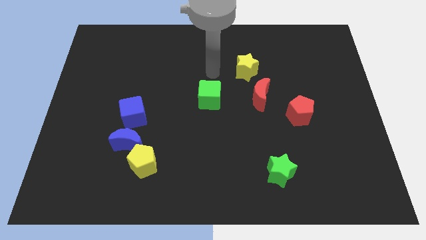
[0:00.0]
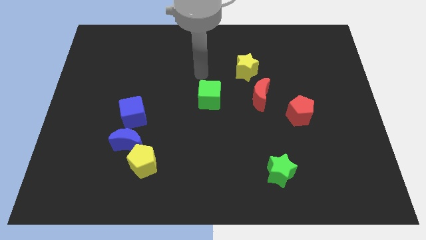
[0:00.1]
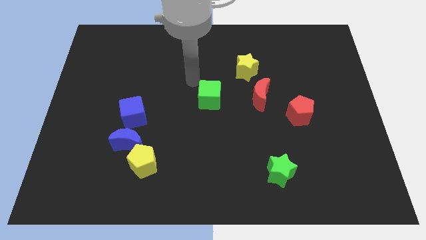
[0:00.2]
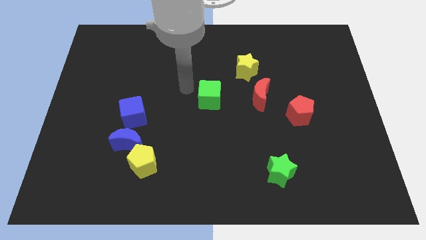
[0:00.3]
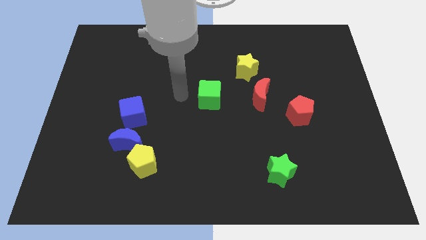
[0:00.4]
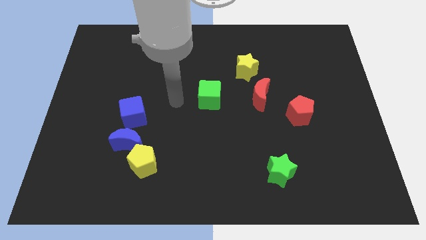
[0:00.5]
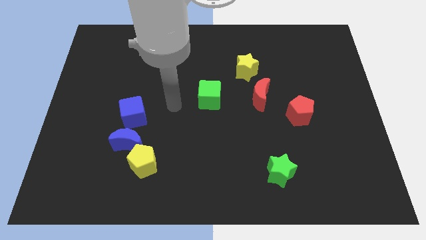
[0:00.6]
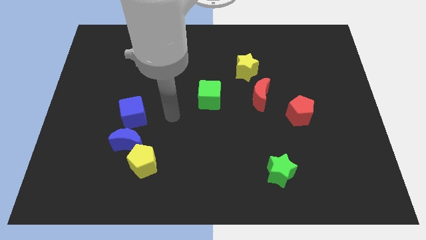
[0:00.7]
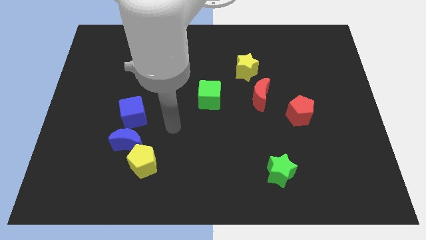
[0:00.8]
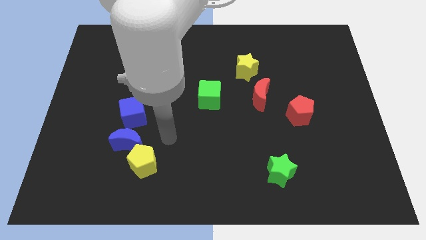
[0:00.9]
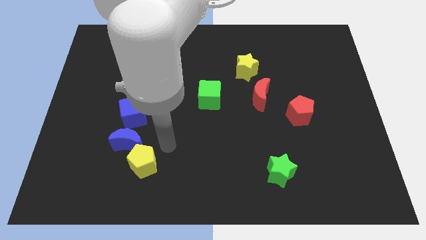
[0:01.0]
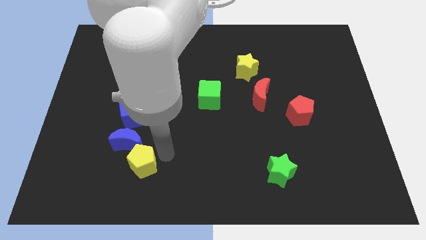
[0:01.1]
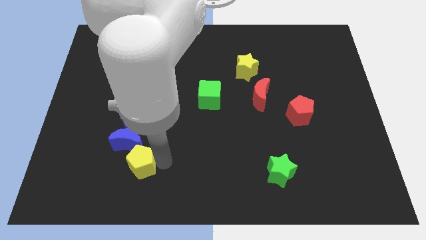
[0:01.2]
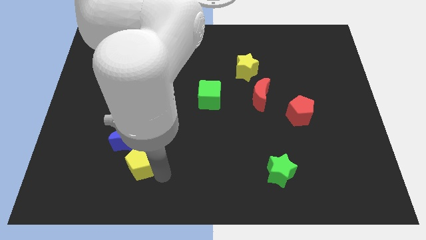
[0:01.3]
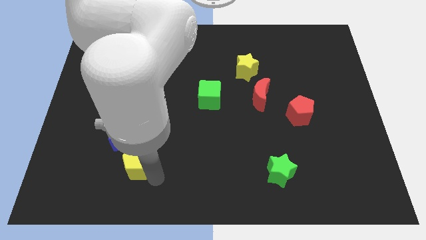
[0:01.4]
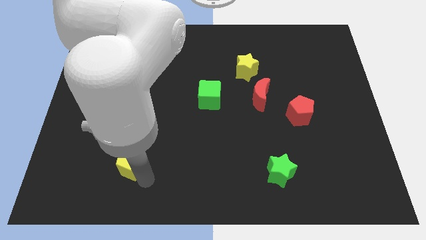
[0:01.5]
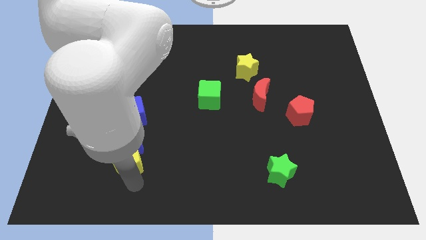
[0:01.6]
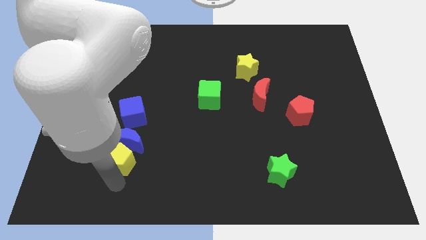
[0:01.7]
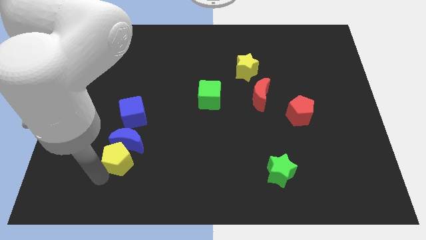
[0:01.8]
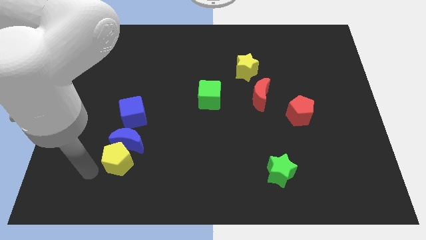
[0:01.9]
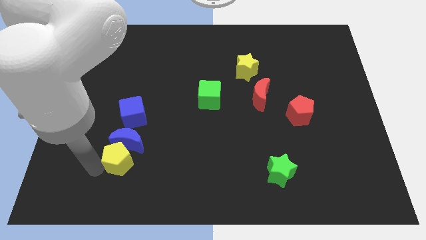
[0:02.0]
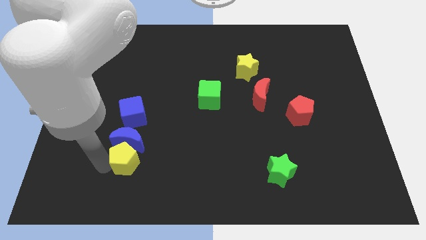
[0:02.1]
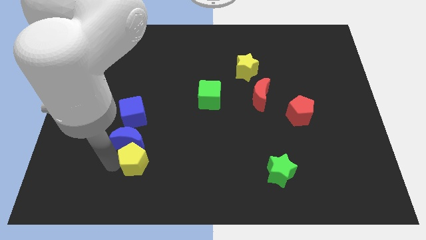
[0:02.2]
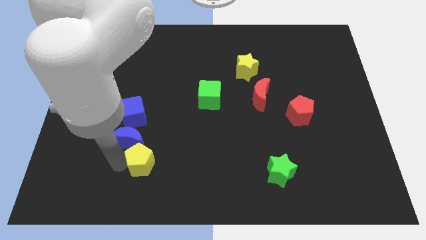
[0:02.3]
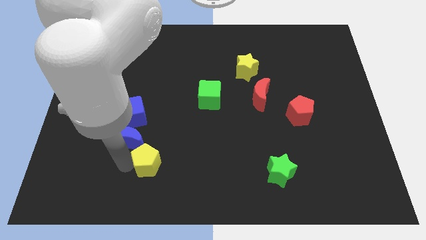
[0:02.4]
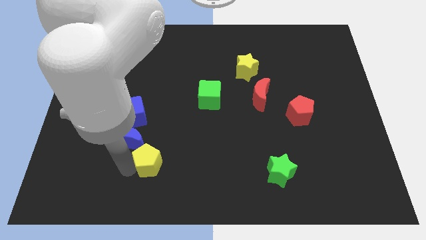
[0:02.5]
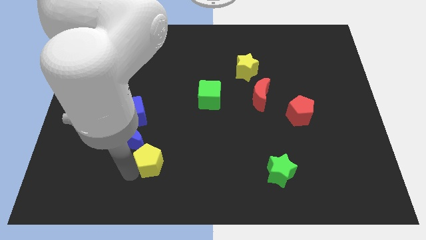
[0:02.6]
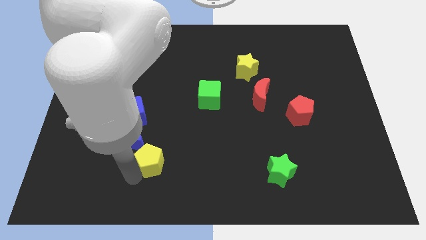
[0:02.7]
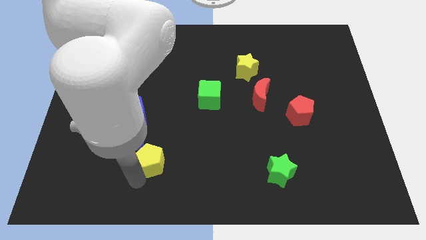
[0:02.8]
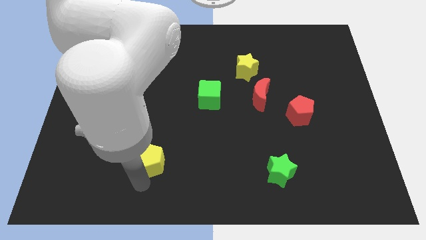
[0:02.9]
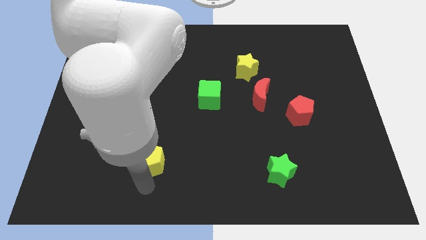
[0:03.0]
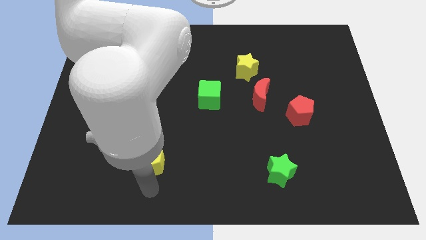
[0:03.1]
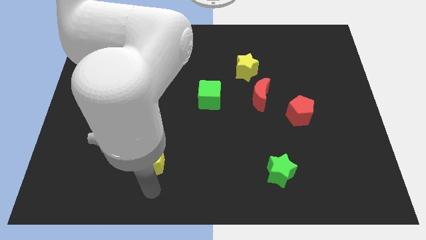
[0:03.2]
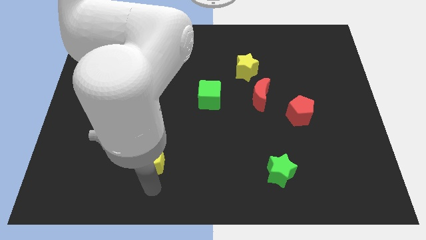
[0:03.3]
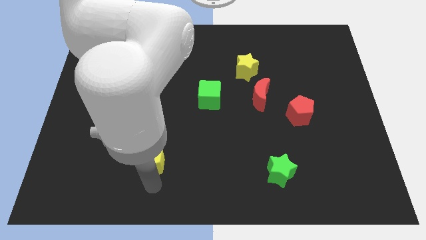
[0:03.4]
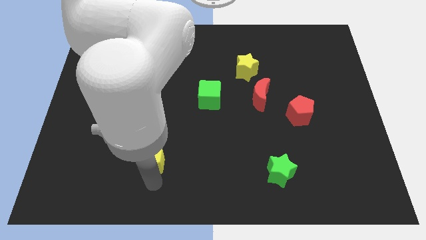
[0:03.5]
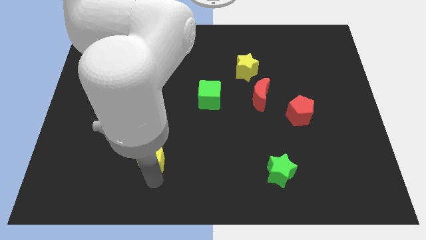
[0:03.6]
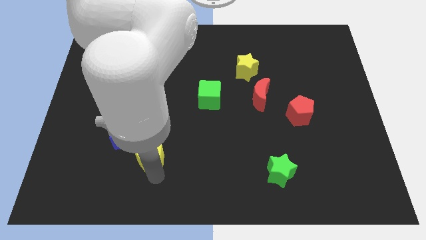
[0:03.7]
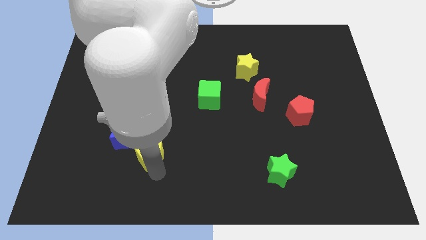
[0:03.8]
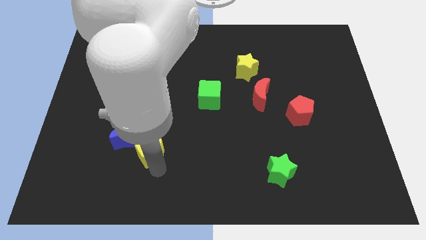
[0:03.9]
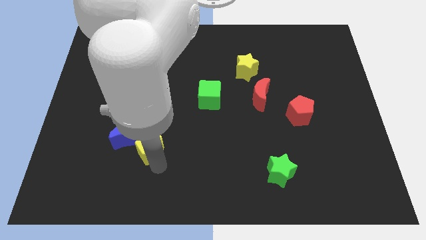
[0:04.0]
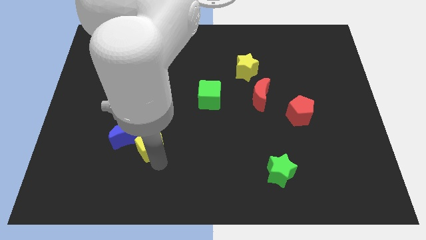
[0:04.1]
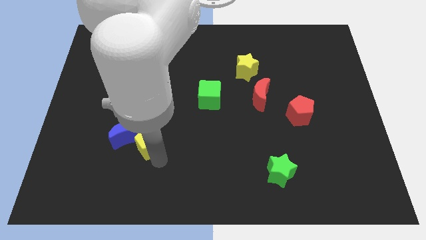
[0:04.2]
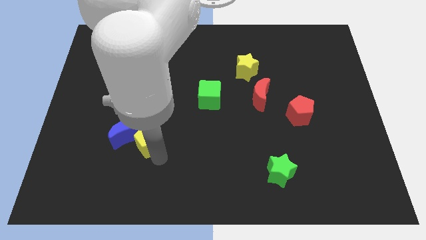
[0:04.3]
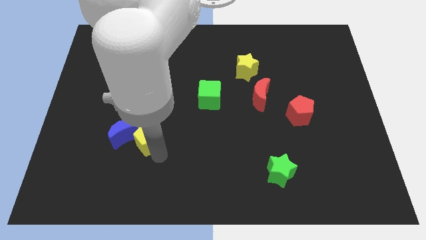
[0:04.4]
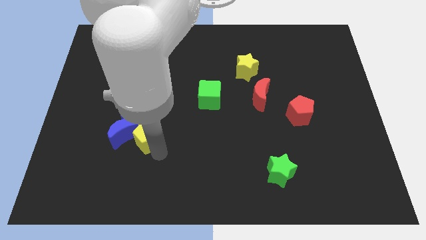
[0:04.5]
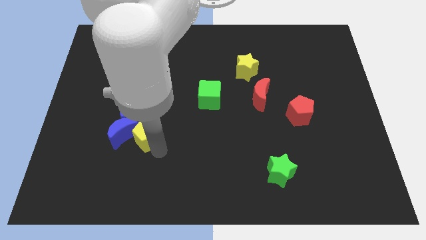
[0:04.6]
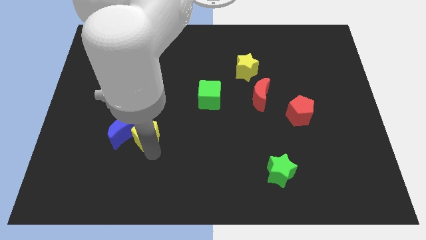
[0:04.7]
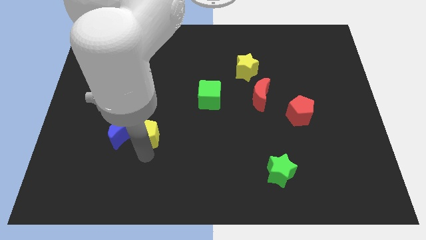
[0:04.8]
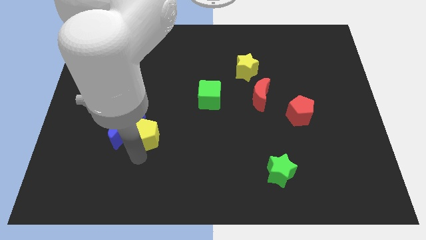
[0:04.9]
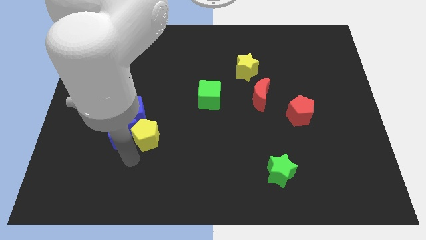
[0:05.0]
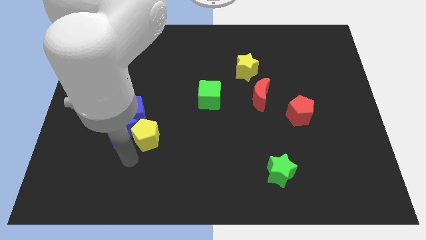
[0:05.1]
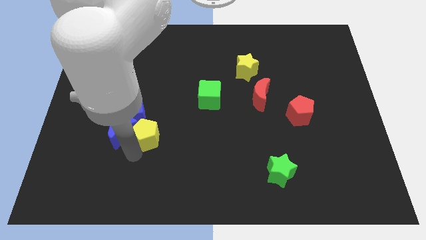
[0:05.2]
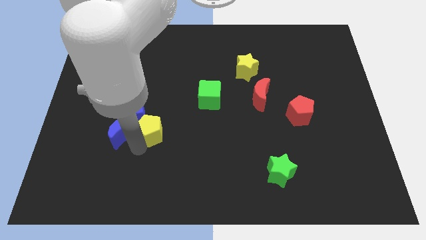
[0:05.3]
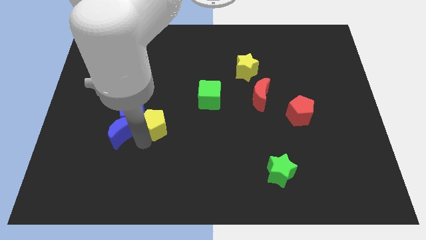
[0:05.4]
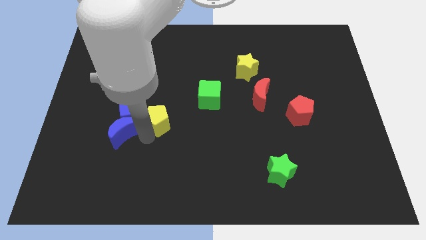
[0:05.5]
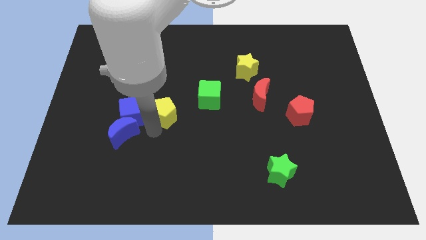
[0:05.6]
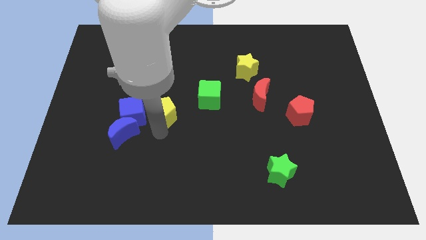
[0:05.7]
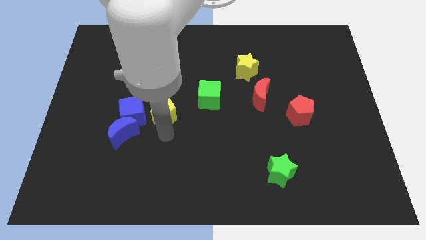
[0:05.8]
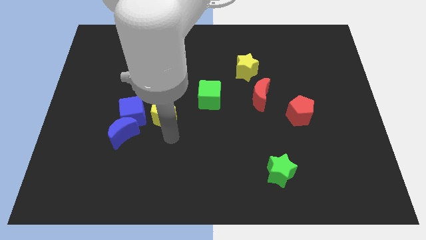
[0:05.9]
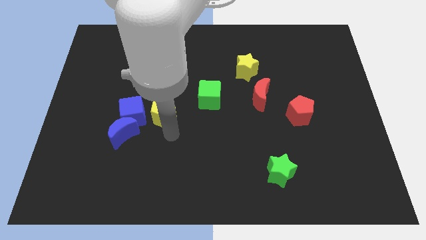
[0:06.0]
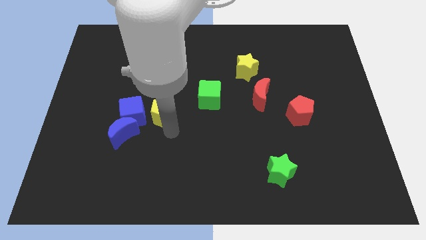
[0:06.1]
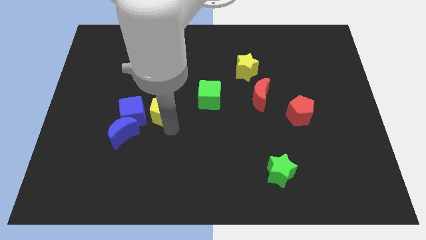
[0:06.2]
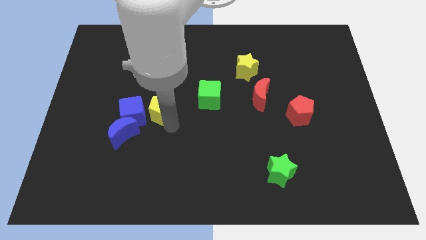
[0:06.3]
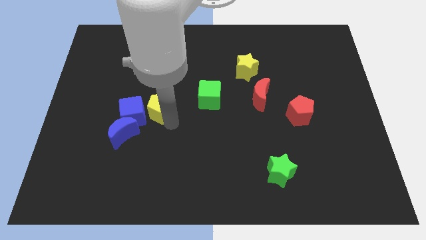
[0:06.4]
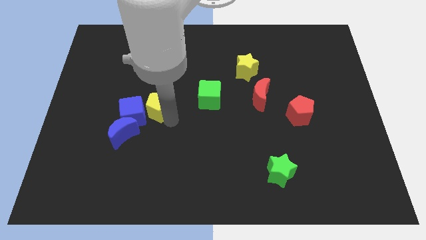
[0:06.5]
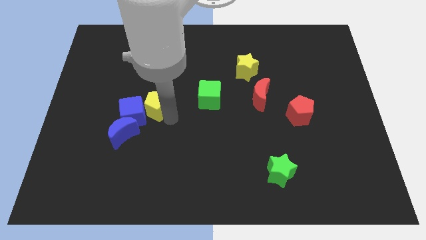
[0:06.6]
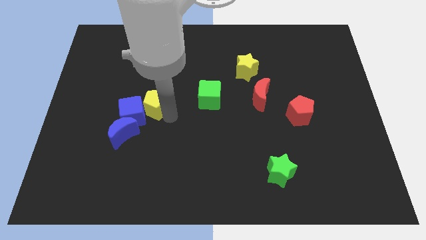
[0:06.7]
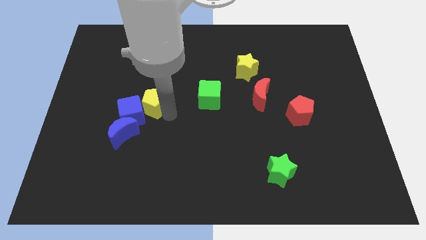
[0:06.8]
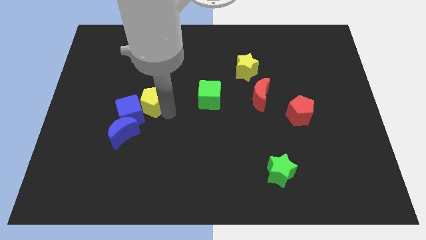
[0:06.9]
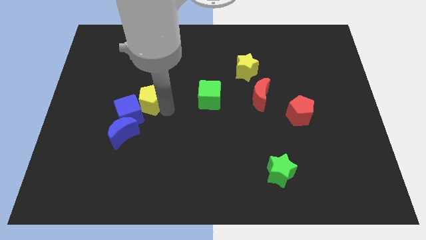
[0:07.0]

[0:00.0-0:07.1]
push the yellow pentagon to the top of the blue cube
